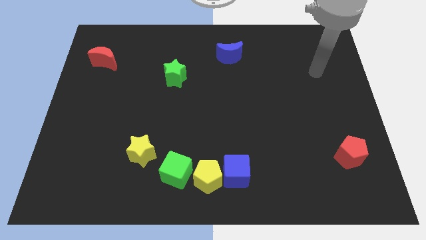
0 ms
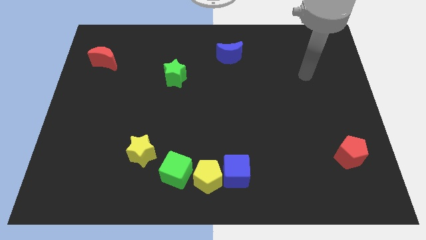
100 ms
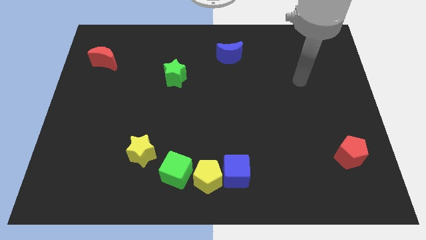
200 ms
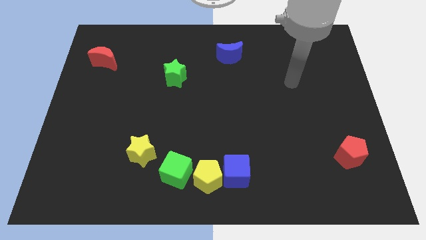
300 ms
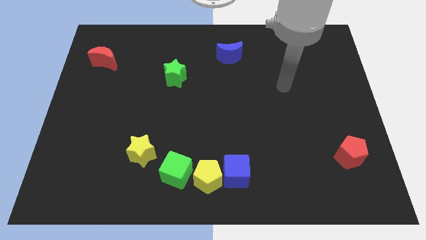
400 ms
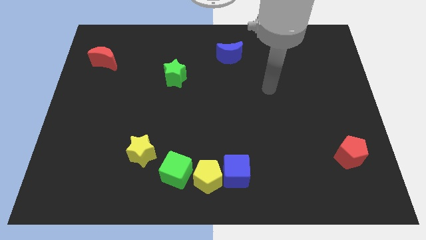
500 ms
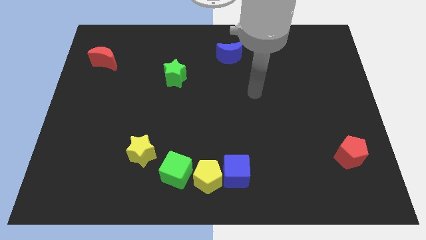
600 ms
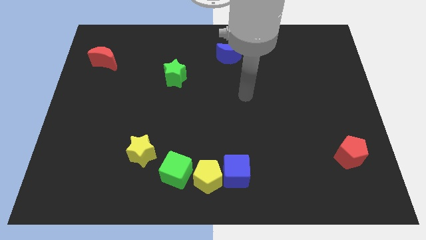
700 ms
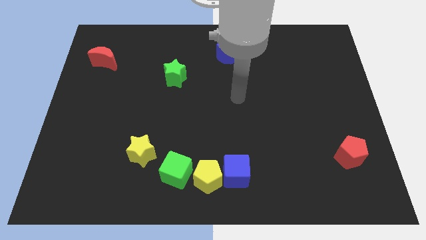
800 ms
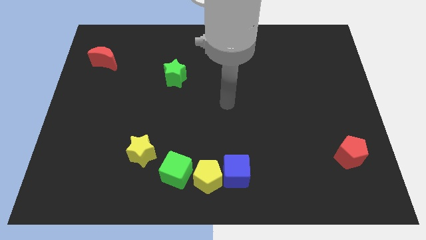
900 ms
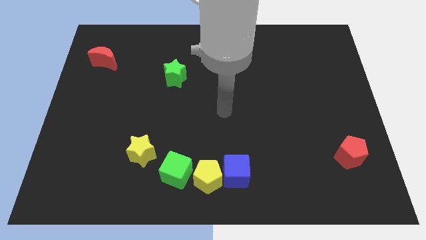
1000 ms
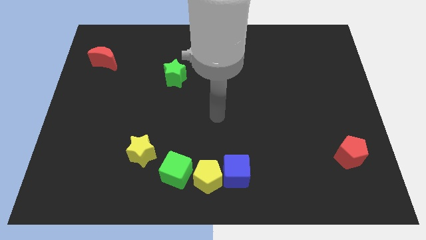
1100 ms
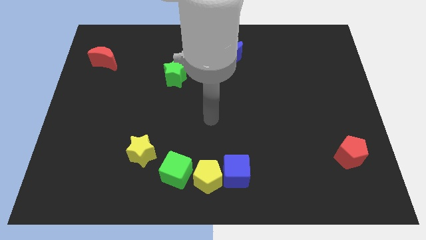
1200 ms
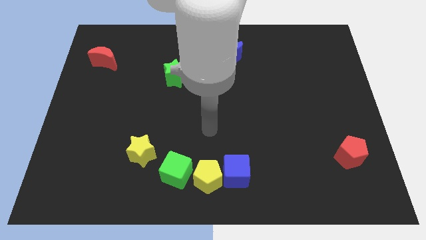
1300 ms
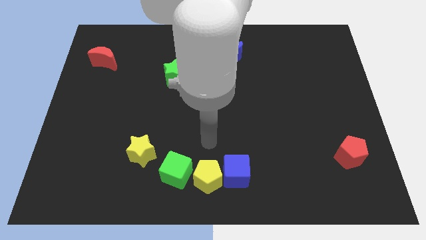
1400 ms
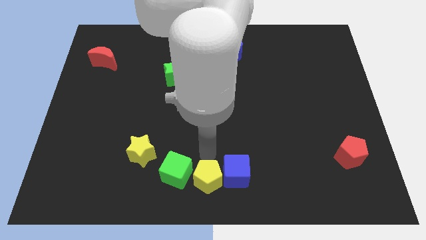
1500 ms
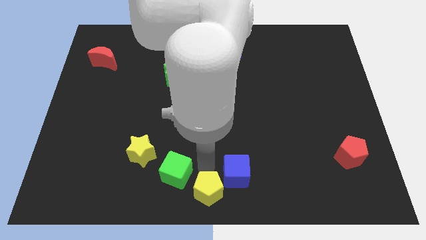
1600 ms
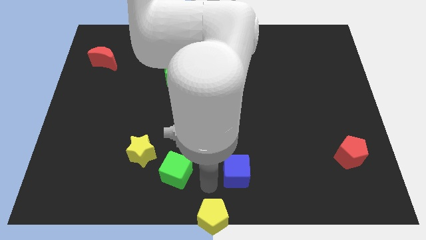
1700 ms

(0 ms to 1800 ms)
pull the blue cube apart from the yellow pentagon

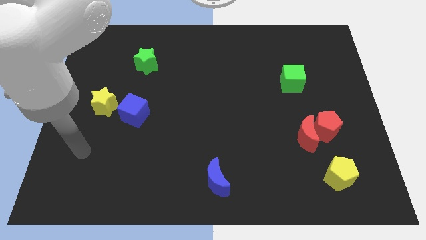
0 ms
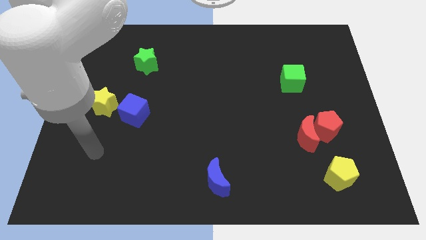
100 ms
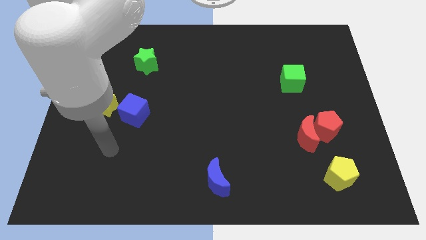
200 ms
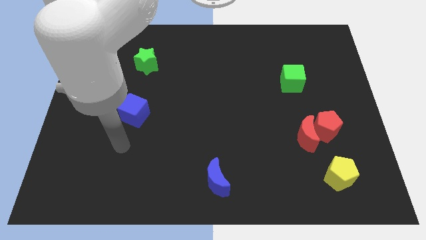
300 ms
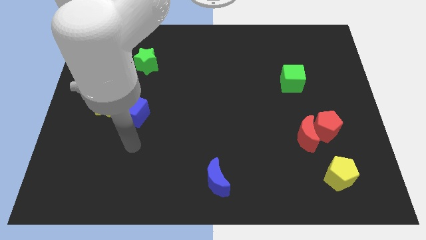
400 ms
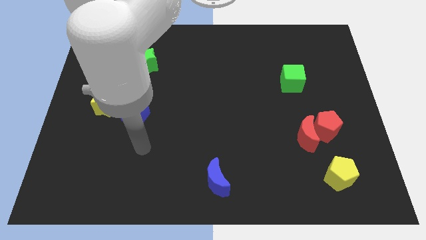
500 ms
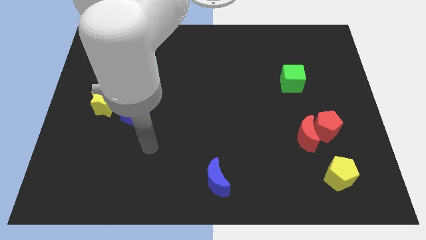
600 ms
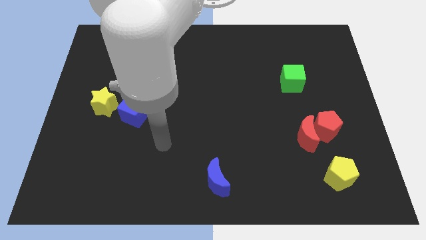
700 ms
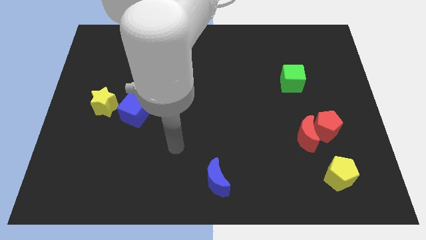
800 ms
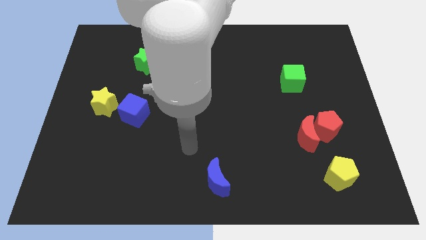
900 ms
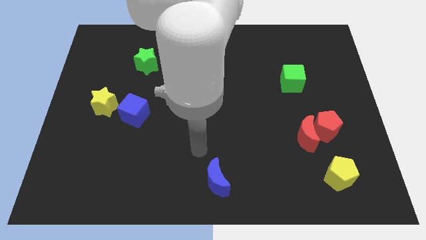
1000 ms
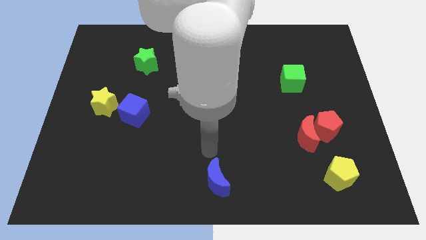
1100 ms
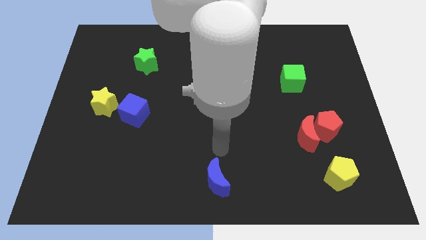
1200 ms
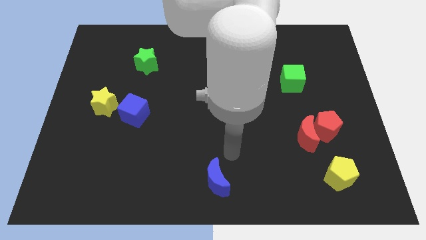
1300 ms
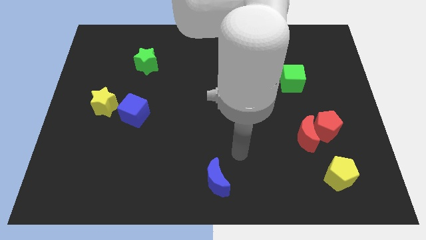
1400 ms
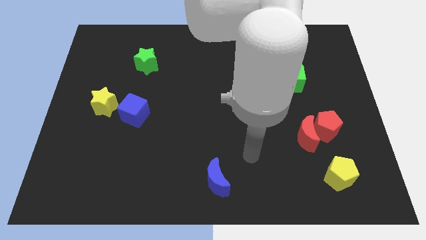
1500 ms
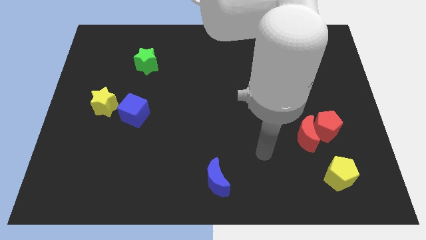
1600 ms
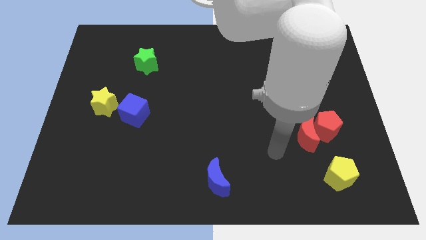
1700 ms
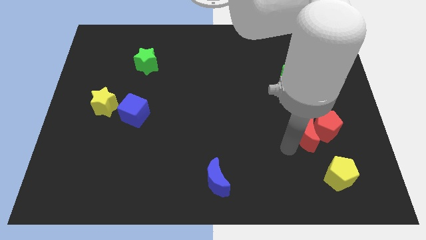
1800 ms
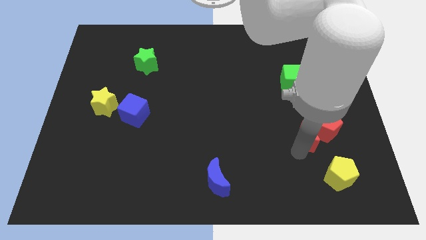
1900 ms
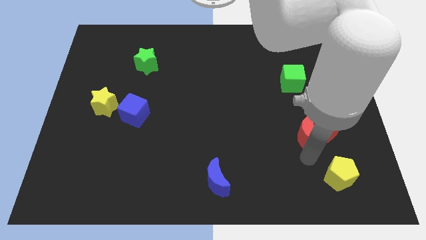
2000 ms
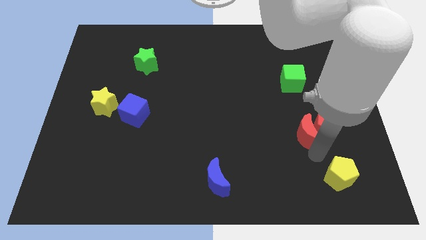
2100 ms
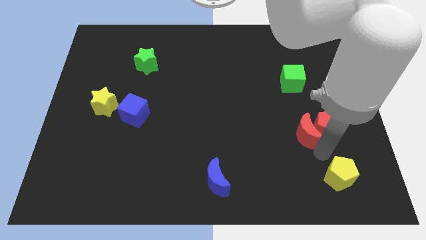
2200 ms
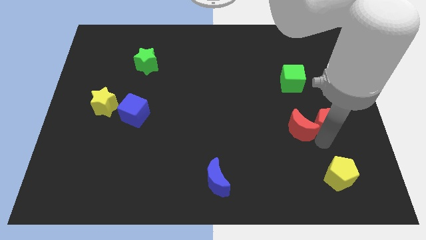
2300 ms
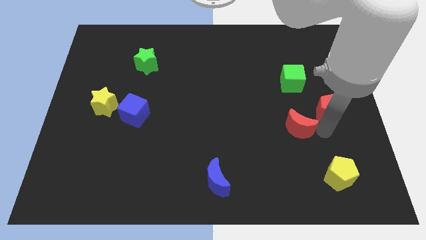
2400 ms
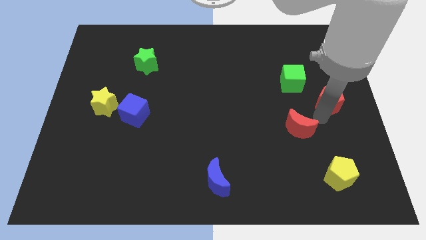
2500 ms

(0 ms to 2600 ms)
separate the red moon from the red pentagon

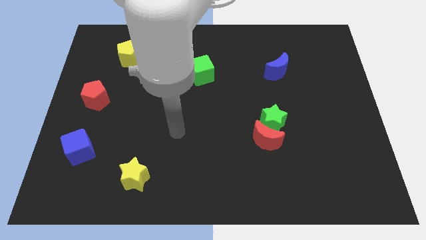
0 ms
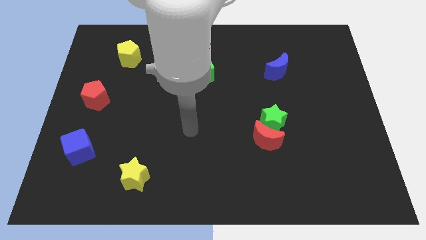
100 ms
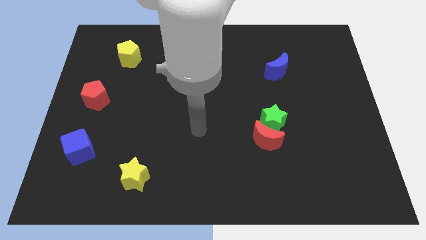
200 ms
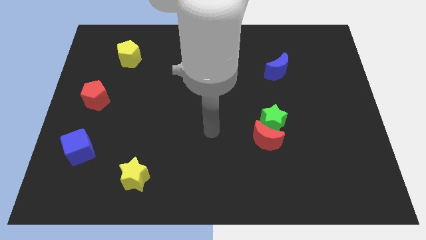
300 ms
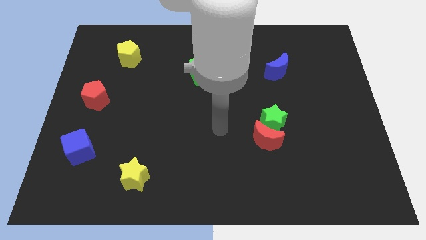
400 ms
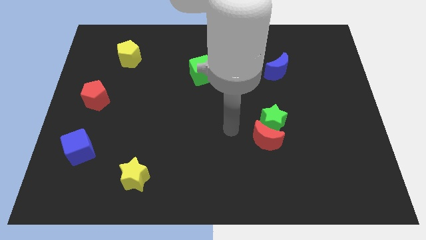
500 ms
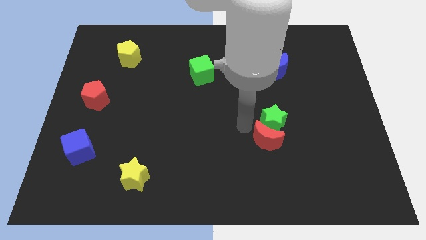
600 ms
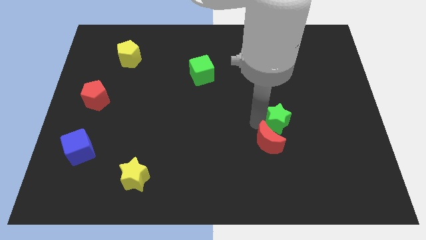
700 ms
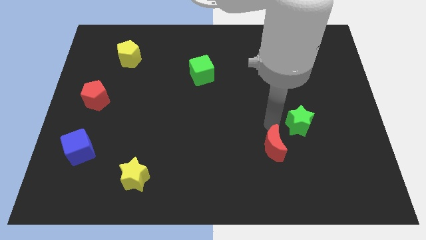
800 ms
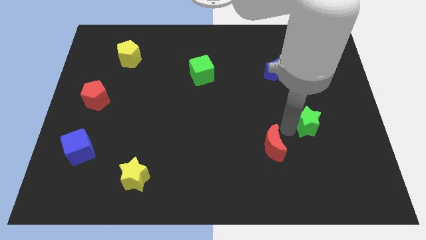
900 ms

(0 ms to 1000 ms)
separate the red moon from the green star

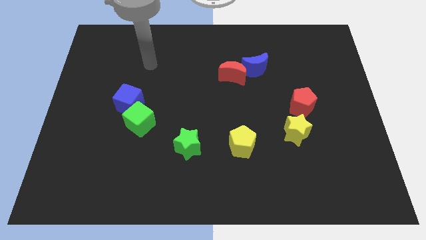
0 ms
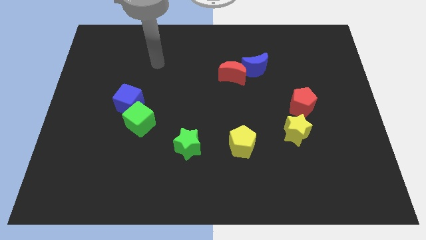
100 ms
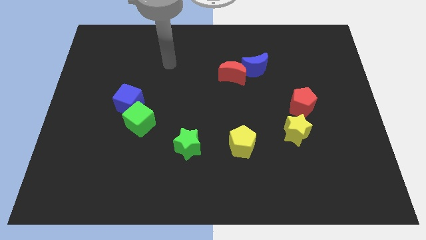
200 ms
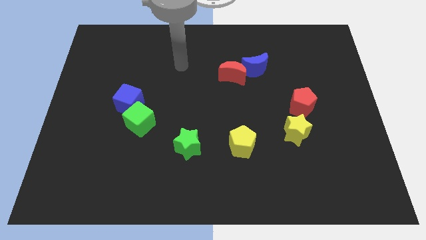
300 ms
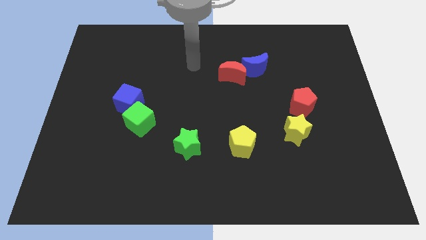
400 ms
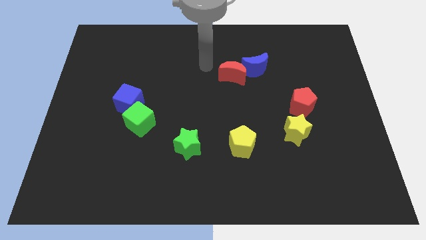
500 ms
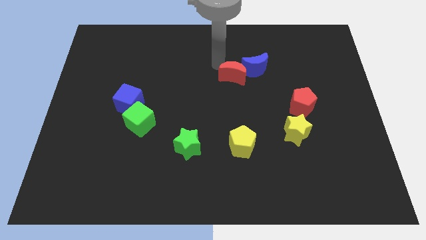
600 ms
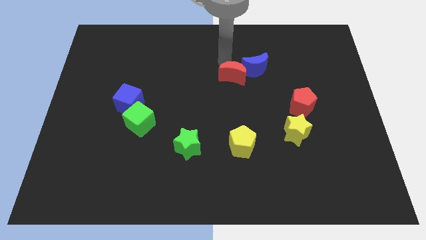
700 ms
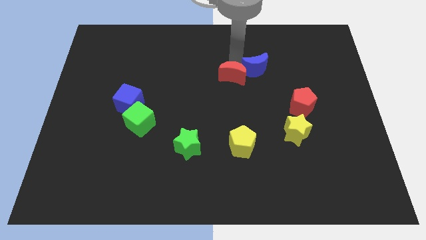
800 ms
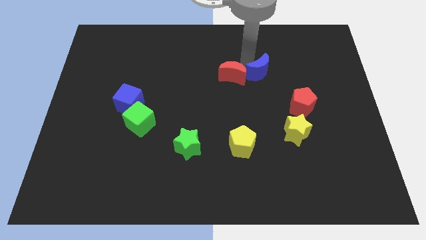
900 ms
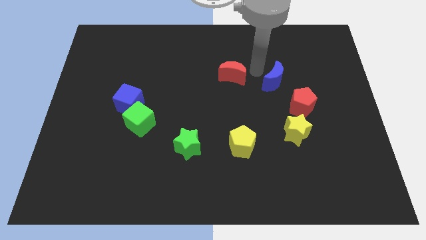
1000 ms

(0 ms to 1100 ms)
pull the red moon apart from the blue moon

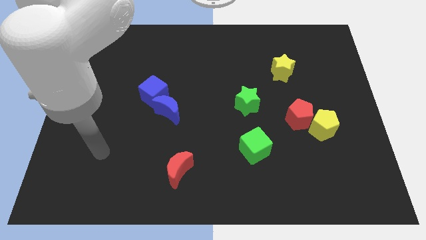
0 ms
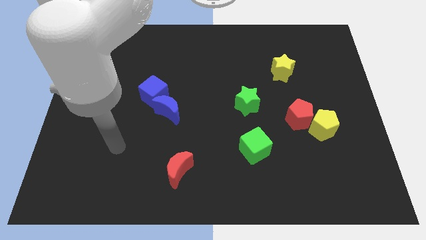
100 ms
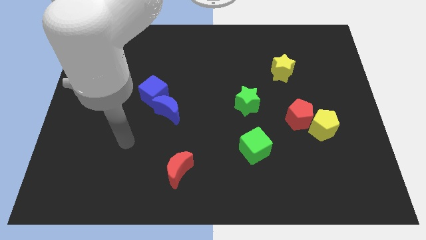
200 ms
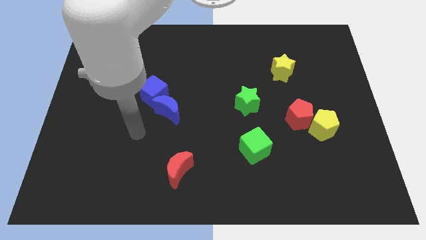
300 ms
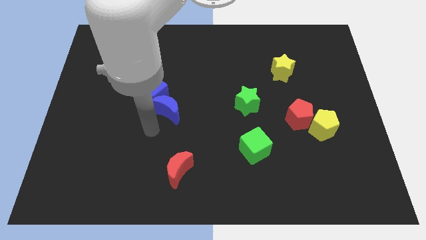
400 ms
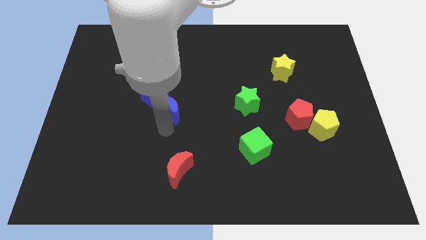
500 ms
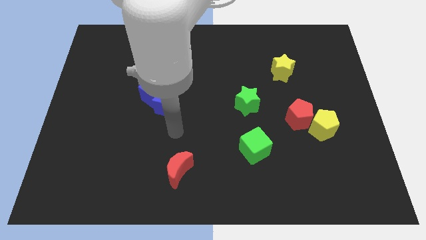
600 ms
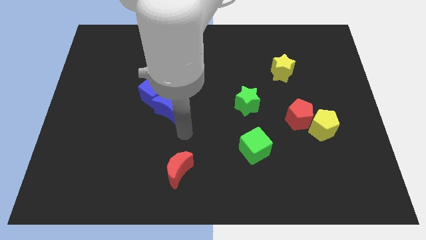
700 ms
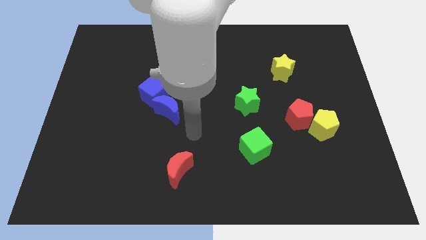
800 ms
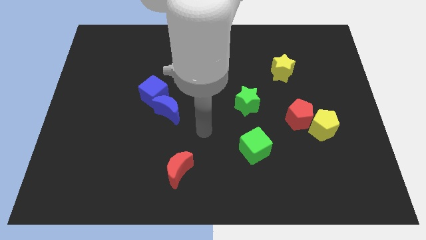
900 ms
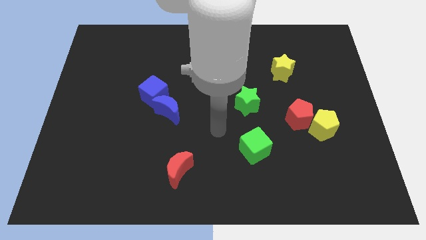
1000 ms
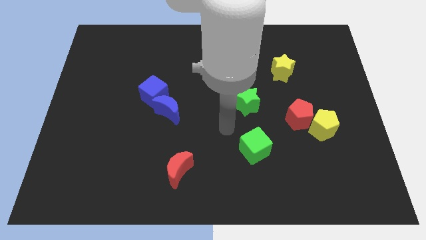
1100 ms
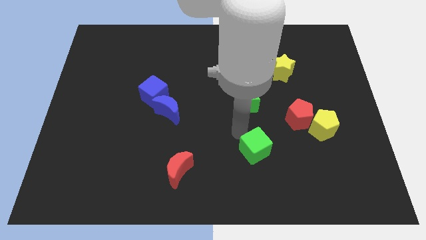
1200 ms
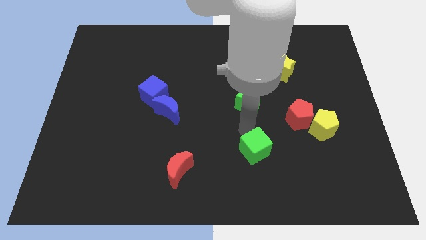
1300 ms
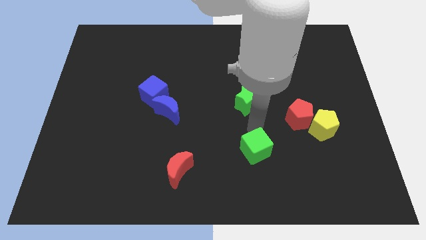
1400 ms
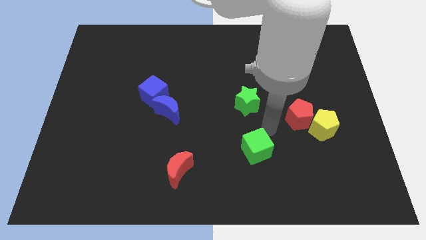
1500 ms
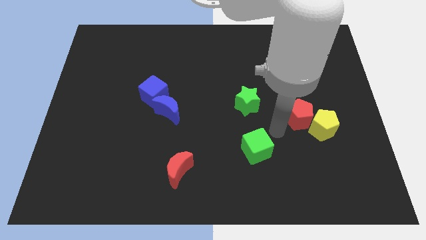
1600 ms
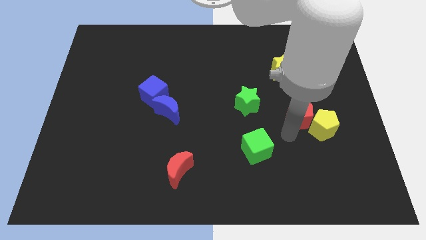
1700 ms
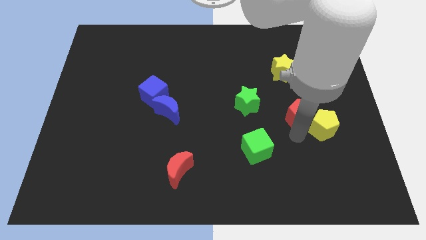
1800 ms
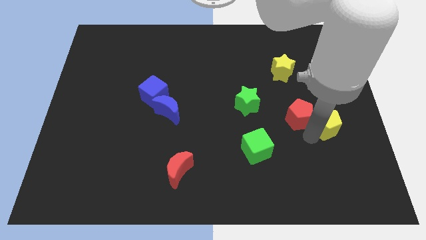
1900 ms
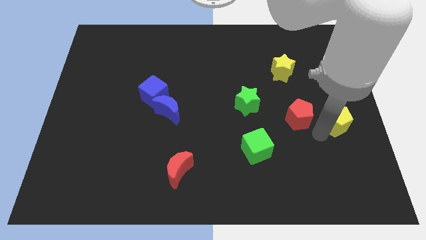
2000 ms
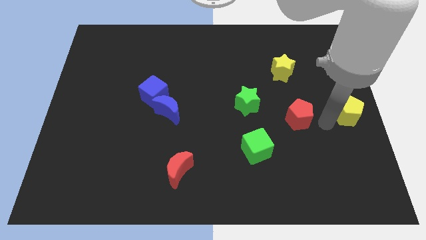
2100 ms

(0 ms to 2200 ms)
pull the red pentagon apart from the yellow pentagon

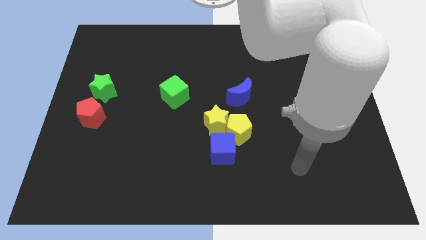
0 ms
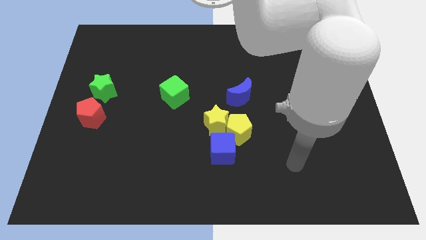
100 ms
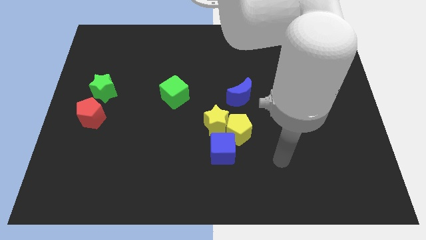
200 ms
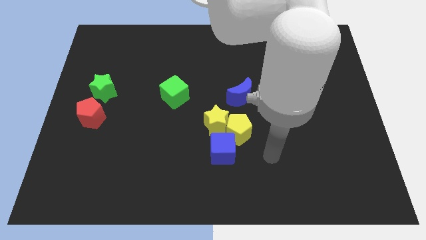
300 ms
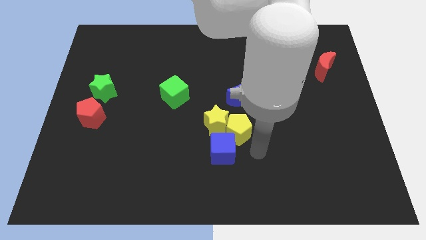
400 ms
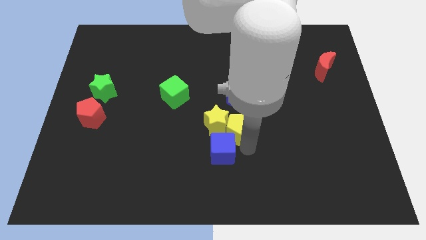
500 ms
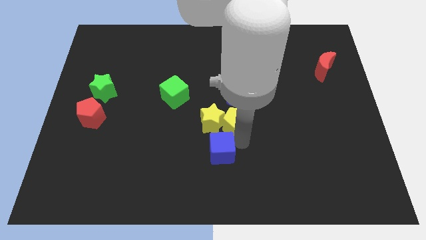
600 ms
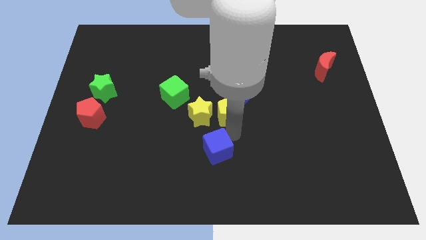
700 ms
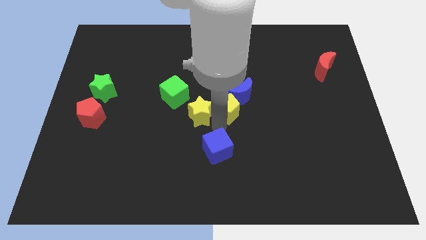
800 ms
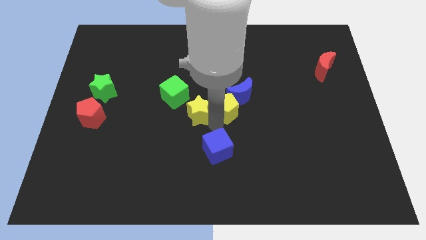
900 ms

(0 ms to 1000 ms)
separate the blue cube from the yellow pentagon and yellow star
